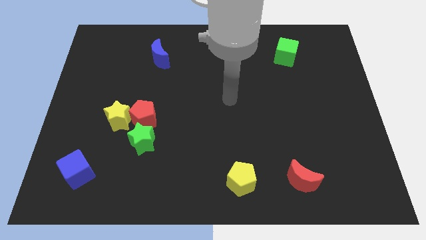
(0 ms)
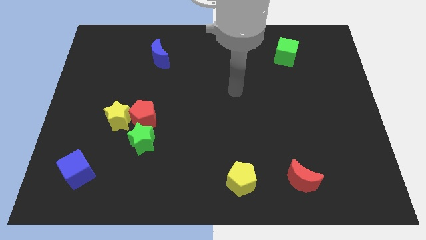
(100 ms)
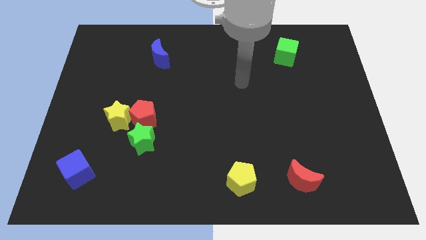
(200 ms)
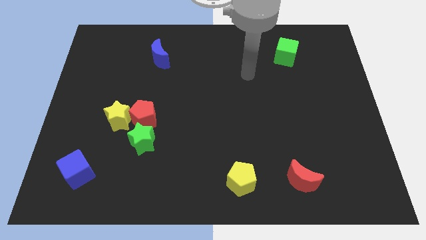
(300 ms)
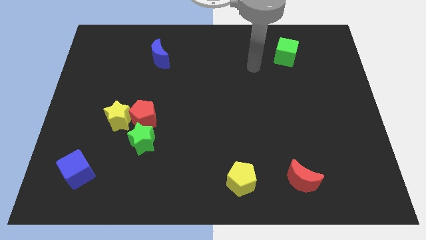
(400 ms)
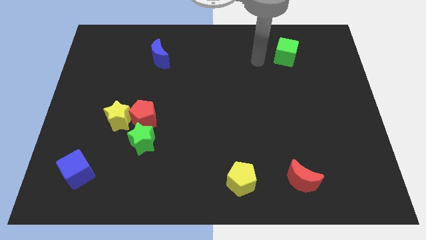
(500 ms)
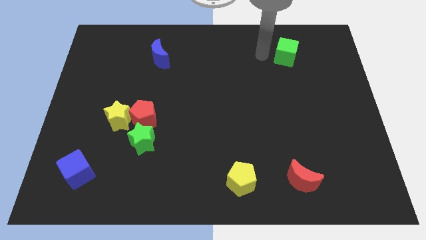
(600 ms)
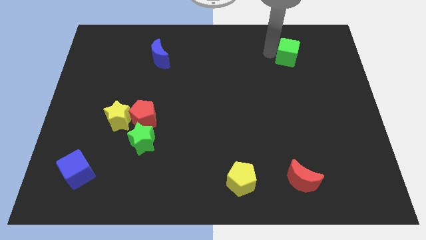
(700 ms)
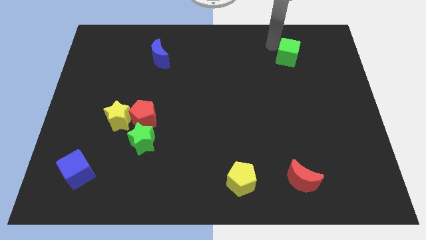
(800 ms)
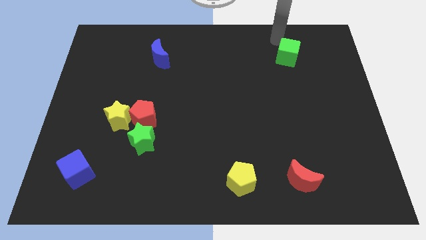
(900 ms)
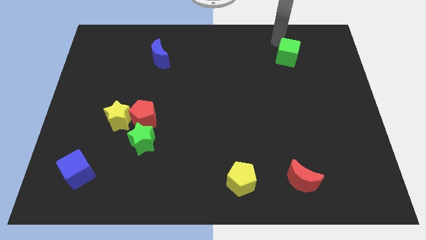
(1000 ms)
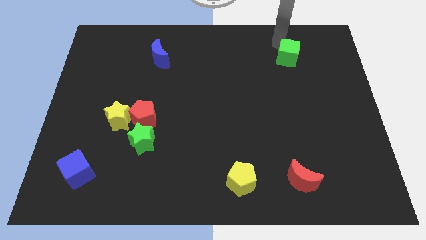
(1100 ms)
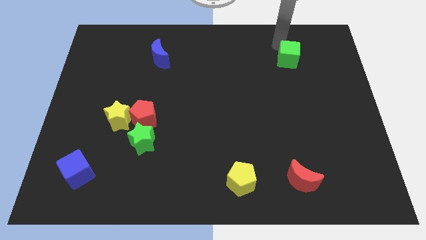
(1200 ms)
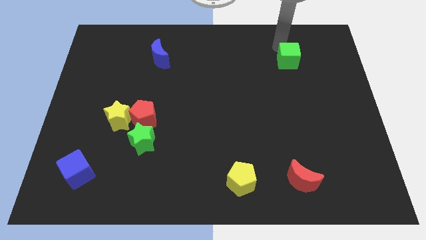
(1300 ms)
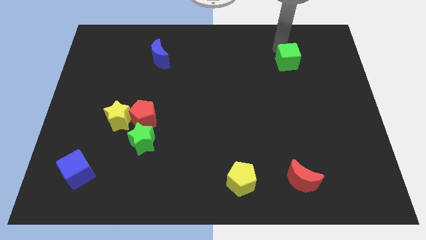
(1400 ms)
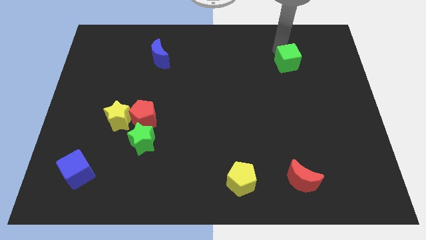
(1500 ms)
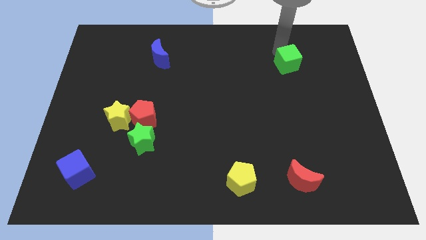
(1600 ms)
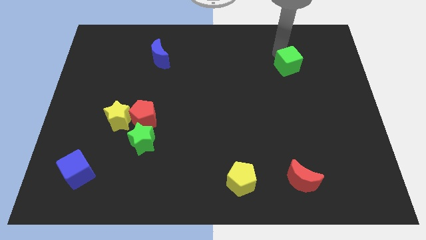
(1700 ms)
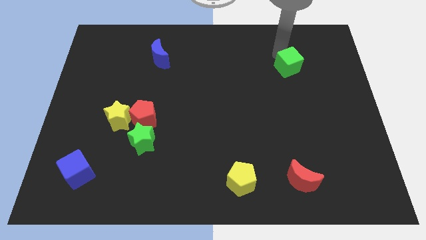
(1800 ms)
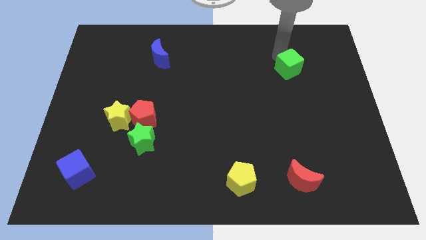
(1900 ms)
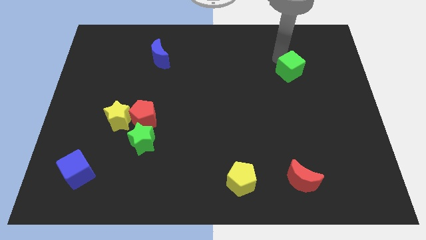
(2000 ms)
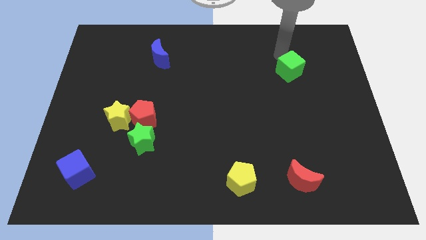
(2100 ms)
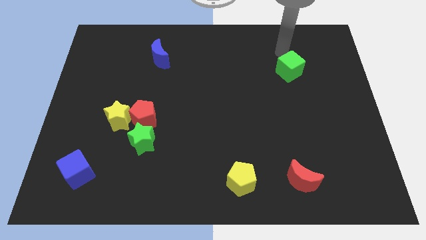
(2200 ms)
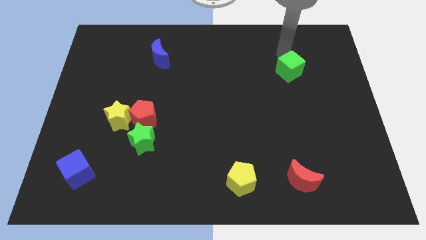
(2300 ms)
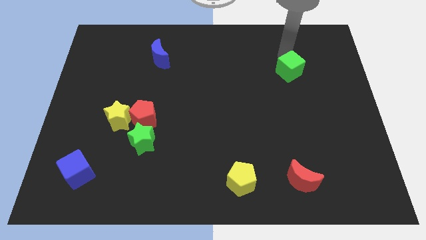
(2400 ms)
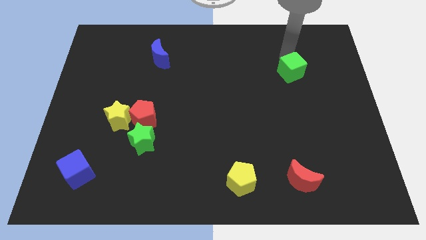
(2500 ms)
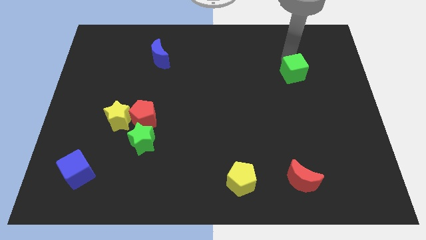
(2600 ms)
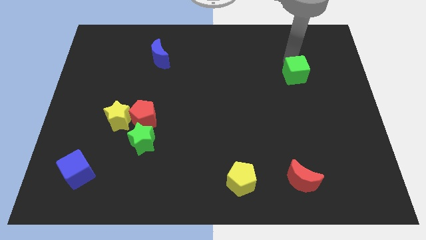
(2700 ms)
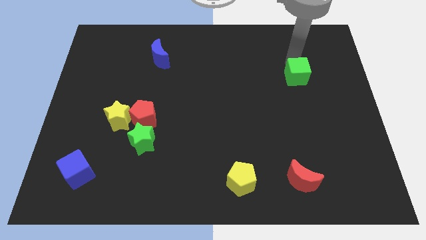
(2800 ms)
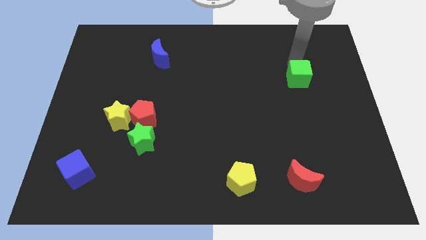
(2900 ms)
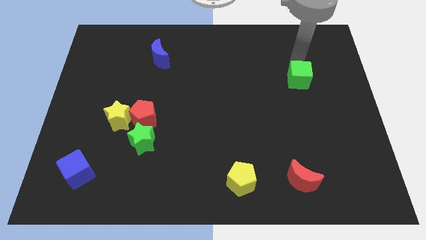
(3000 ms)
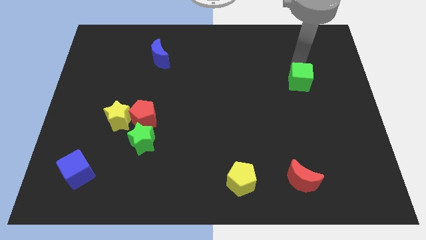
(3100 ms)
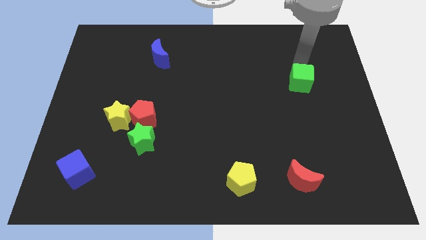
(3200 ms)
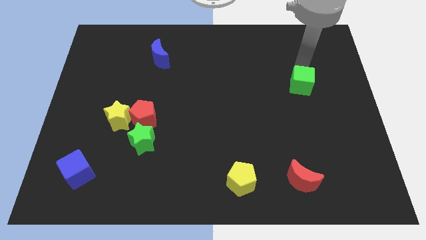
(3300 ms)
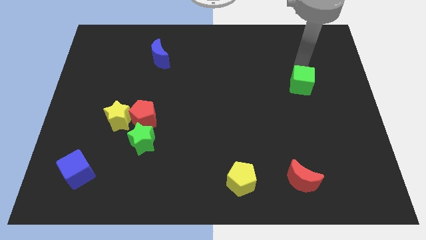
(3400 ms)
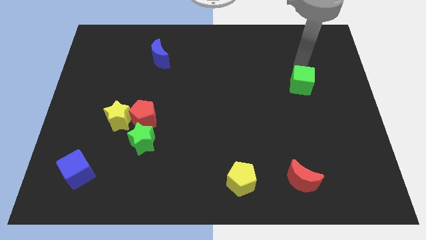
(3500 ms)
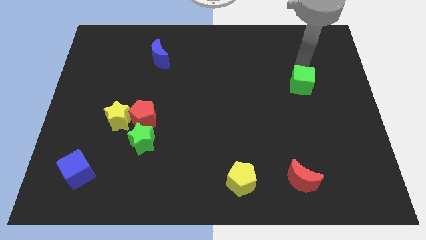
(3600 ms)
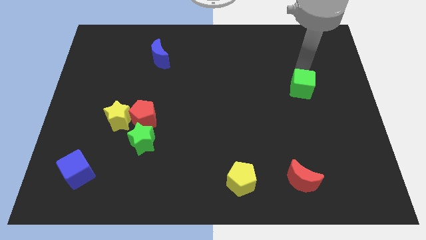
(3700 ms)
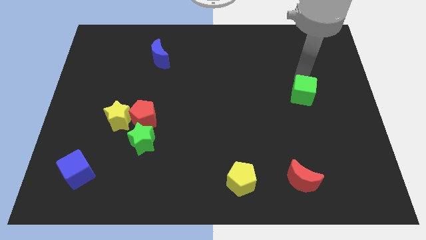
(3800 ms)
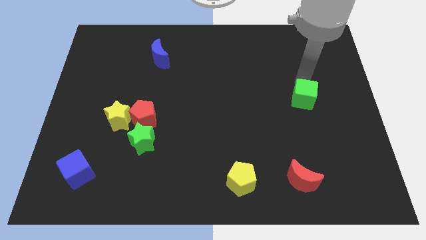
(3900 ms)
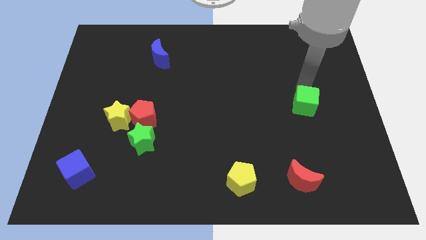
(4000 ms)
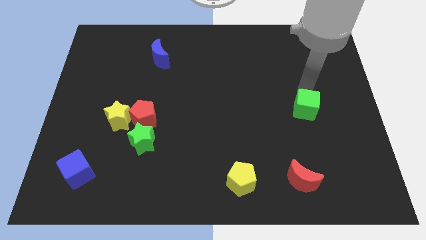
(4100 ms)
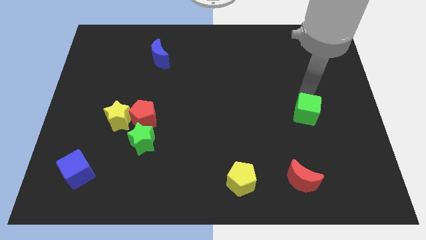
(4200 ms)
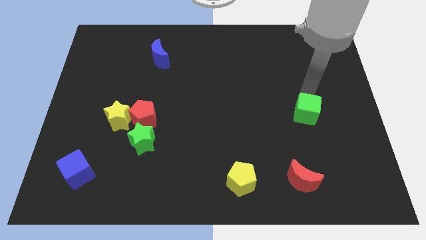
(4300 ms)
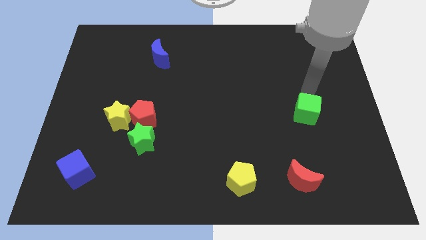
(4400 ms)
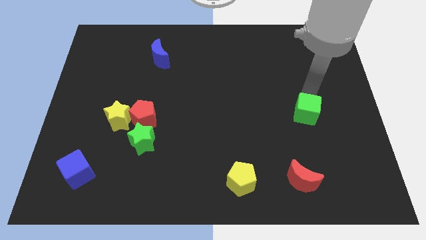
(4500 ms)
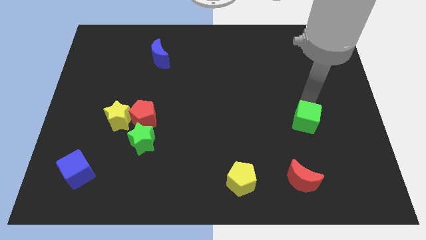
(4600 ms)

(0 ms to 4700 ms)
move the green cube downwards

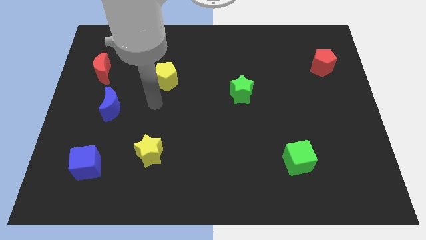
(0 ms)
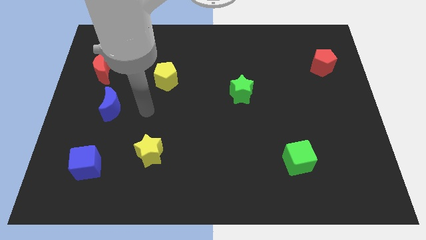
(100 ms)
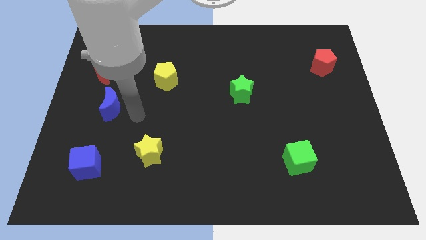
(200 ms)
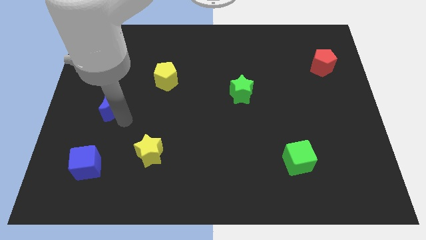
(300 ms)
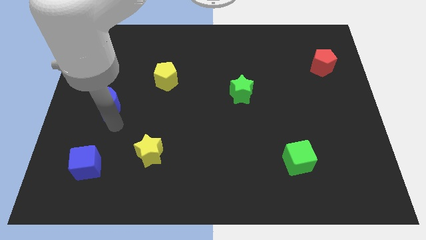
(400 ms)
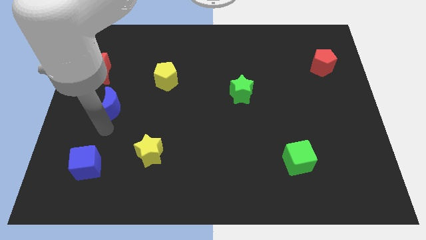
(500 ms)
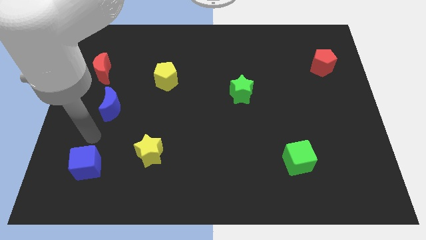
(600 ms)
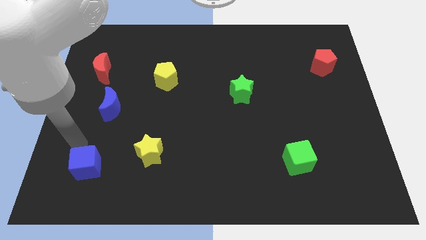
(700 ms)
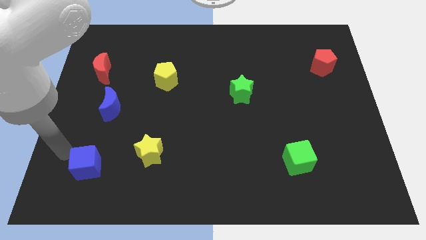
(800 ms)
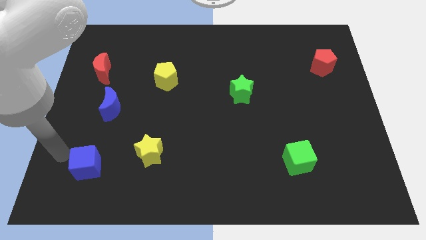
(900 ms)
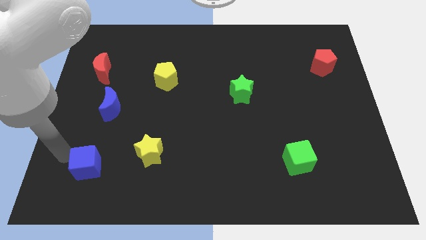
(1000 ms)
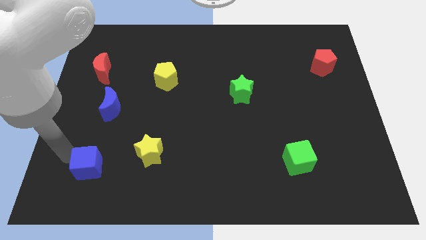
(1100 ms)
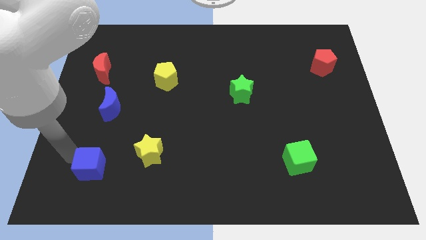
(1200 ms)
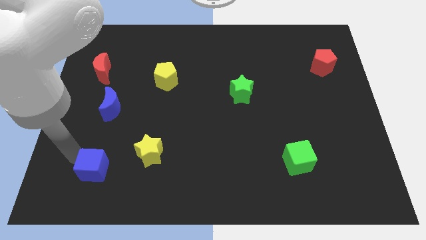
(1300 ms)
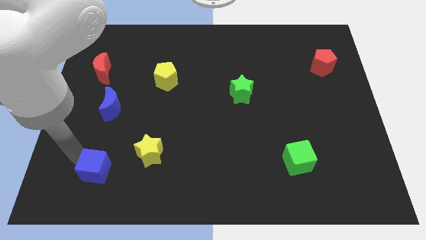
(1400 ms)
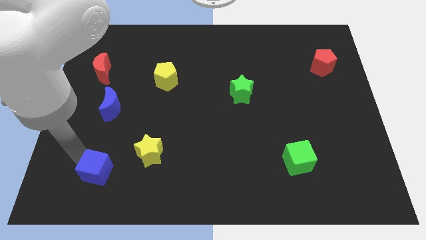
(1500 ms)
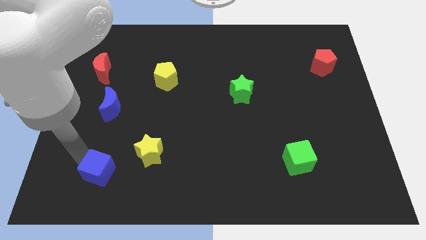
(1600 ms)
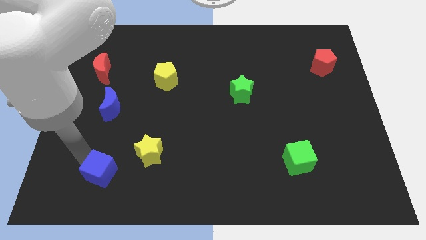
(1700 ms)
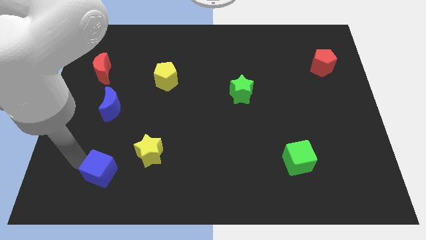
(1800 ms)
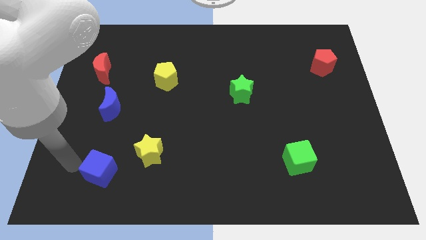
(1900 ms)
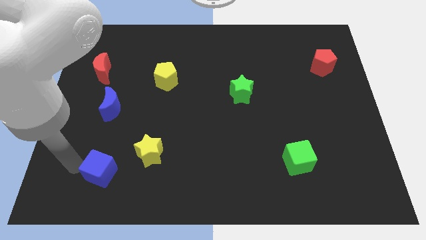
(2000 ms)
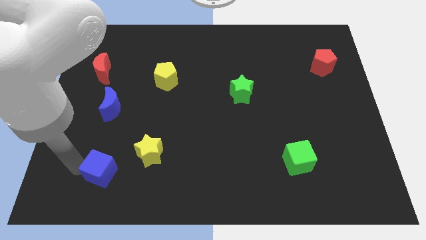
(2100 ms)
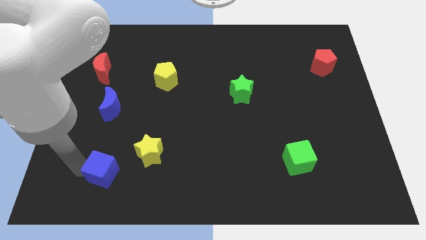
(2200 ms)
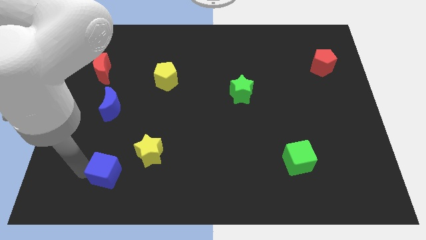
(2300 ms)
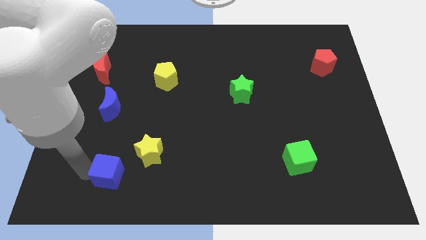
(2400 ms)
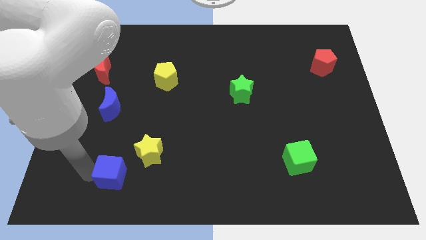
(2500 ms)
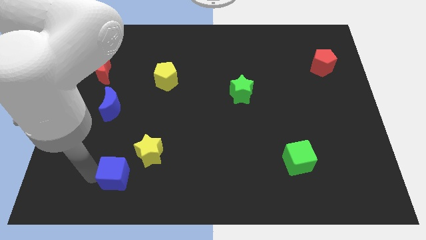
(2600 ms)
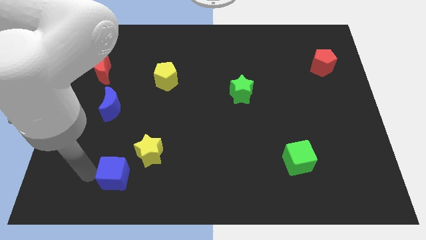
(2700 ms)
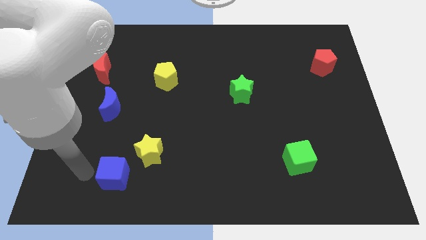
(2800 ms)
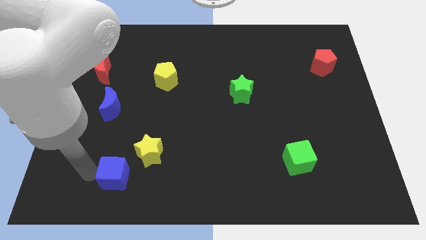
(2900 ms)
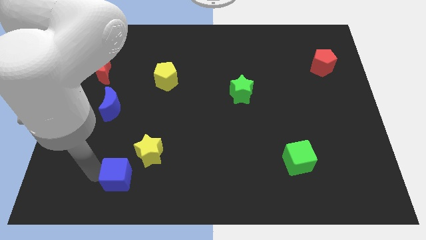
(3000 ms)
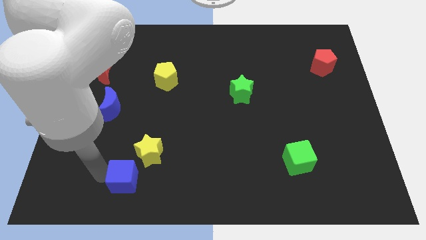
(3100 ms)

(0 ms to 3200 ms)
slide the blue cube right somewhat

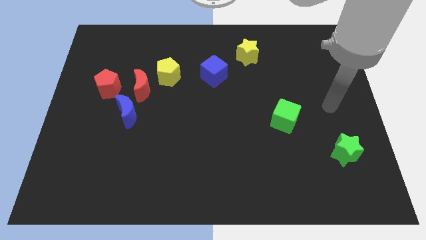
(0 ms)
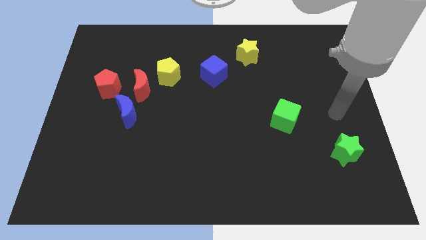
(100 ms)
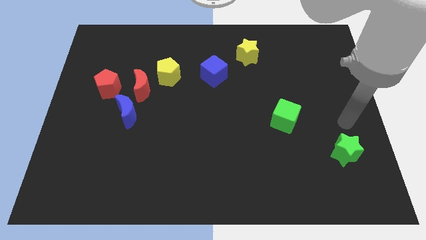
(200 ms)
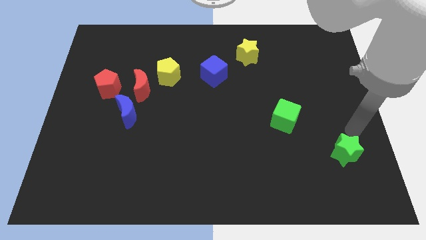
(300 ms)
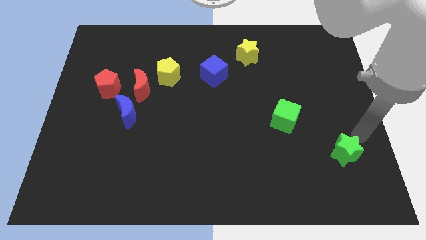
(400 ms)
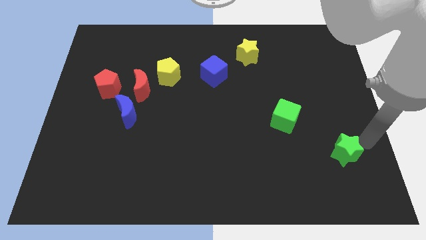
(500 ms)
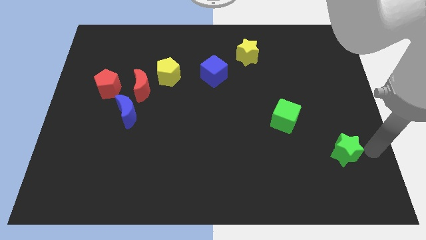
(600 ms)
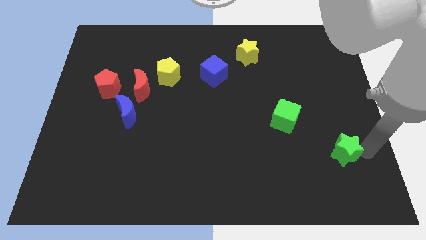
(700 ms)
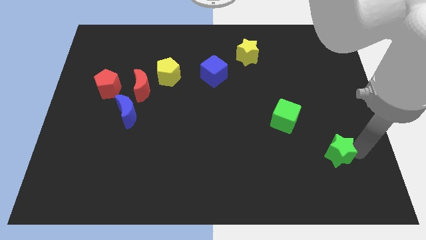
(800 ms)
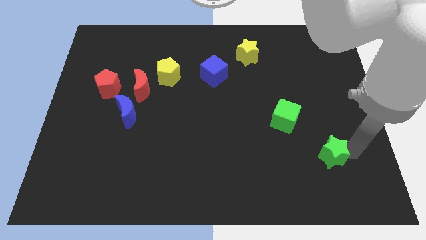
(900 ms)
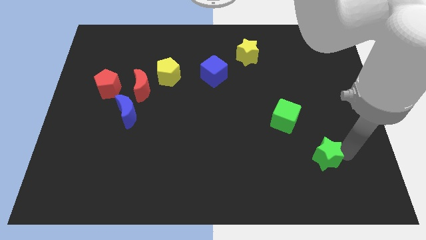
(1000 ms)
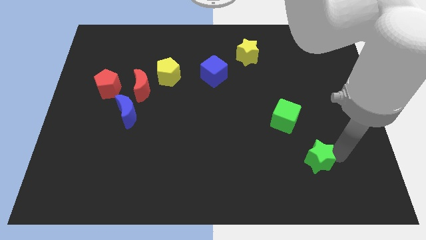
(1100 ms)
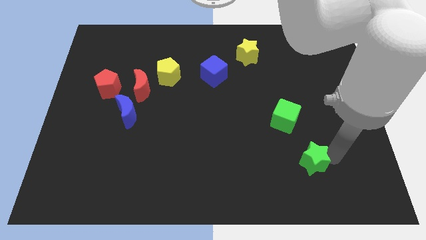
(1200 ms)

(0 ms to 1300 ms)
push the green star a bit left
